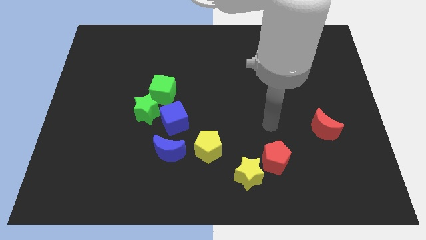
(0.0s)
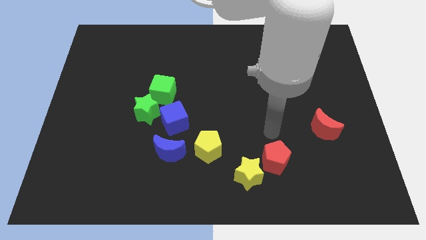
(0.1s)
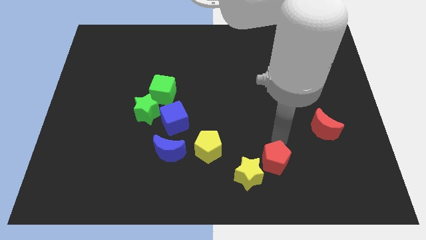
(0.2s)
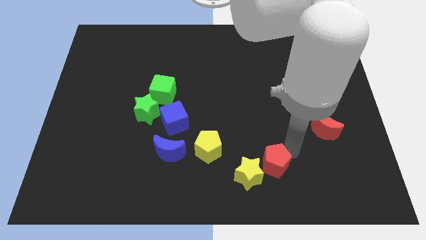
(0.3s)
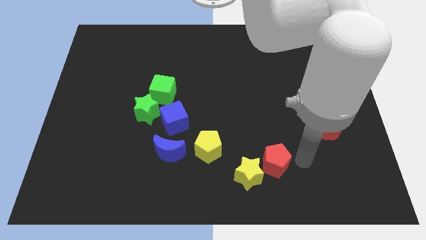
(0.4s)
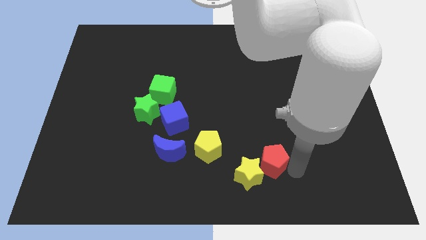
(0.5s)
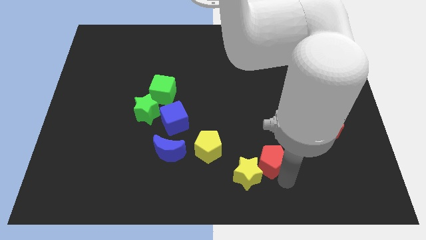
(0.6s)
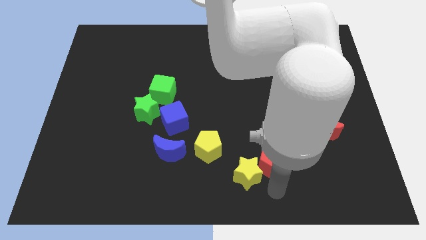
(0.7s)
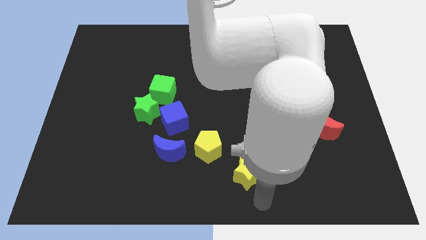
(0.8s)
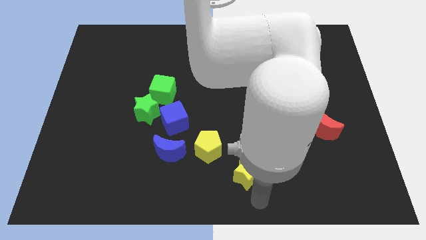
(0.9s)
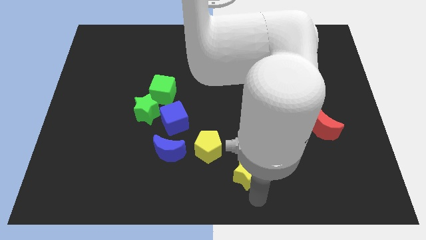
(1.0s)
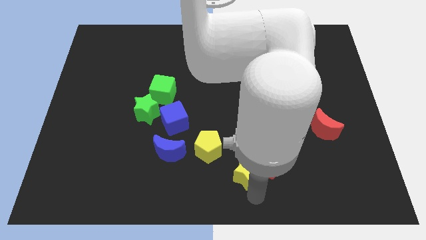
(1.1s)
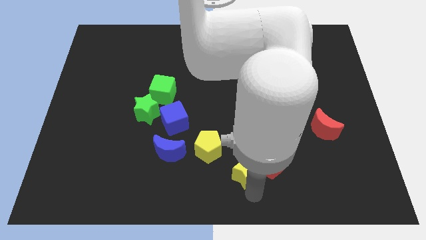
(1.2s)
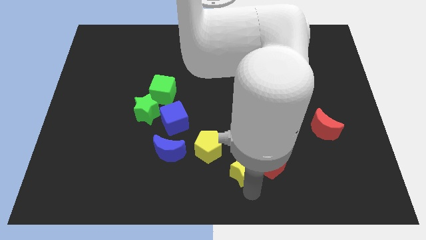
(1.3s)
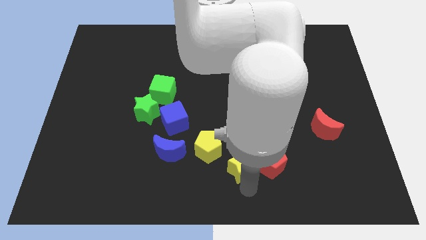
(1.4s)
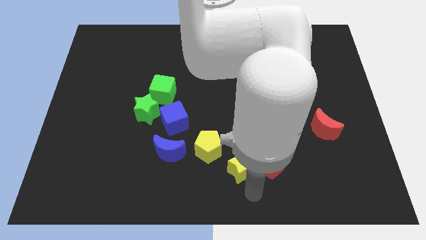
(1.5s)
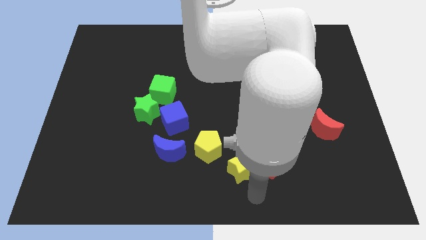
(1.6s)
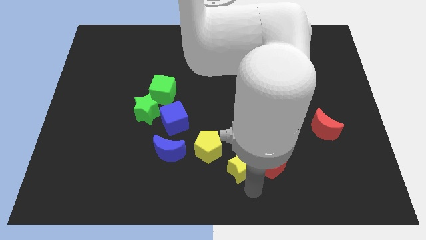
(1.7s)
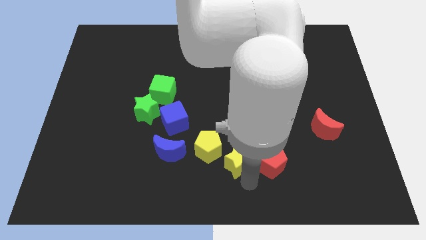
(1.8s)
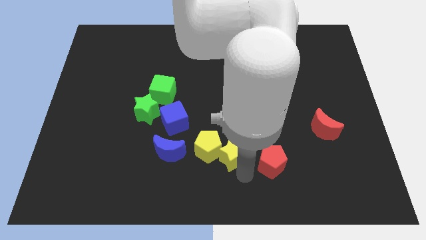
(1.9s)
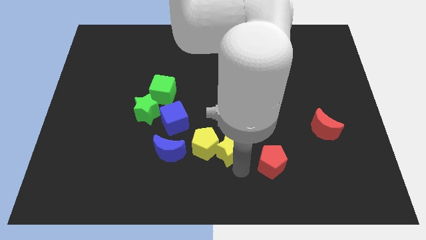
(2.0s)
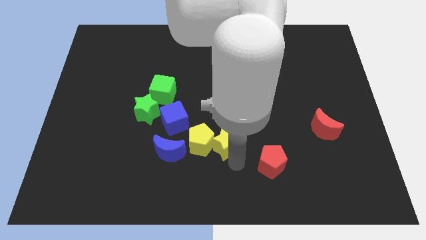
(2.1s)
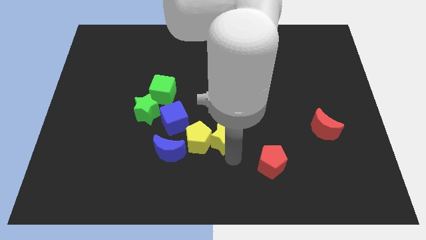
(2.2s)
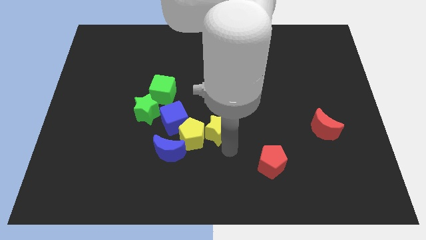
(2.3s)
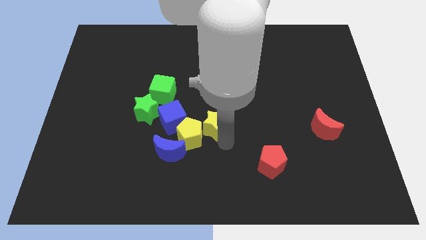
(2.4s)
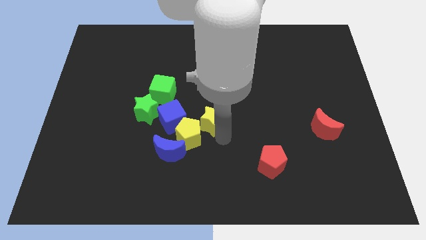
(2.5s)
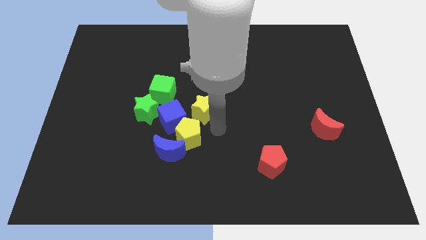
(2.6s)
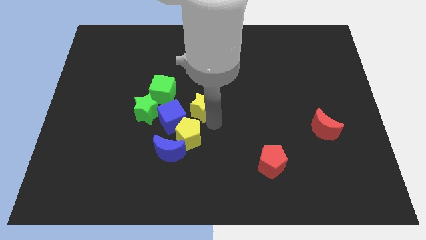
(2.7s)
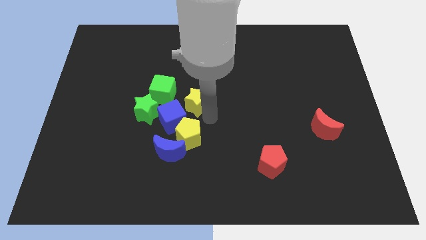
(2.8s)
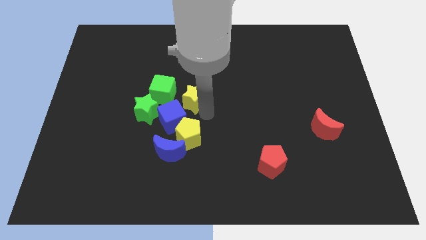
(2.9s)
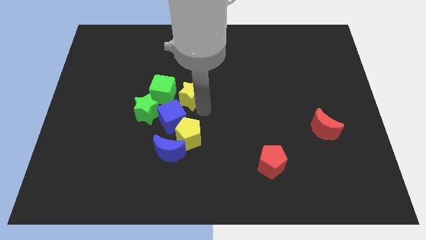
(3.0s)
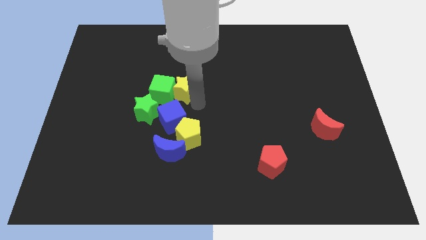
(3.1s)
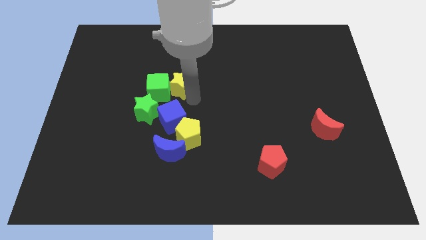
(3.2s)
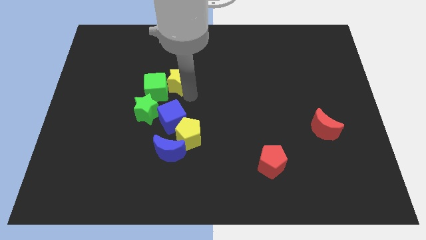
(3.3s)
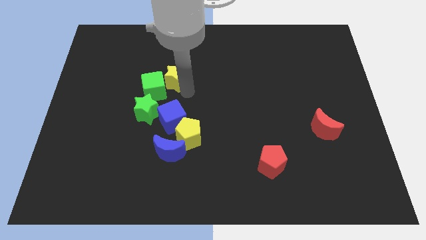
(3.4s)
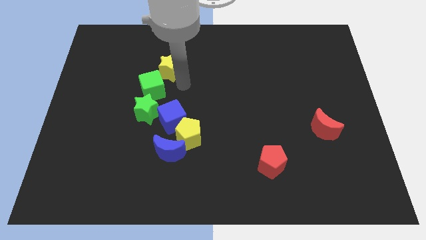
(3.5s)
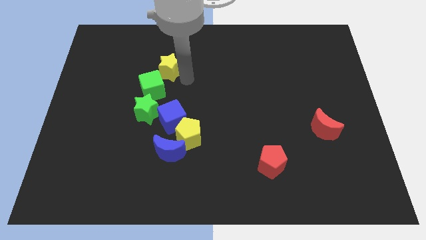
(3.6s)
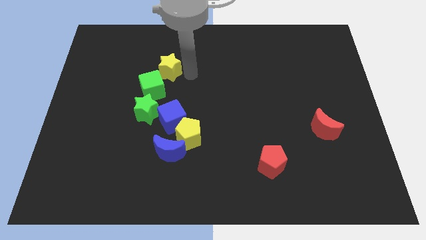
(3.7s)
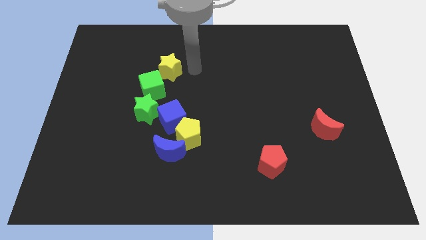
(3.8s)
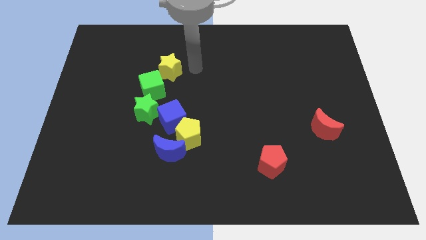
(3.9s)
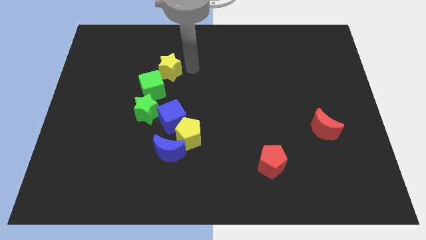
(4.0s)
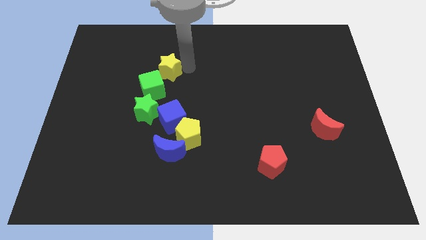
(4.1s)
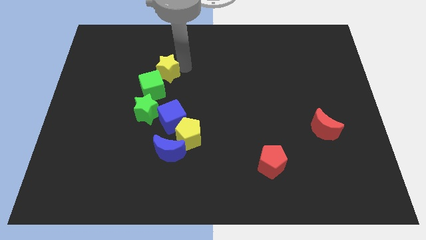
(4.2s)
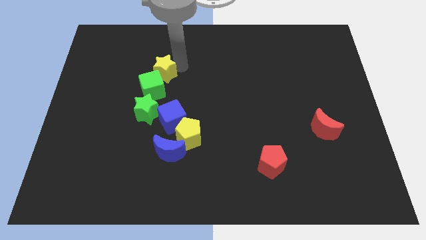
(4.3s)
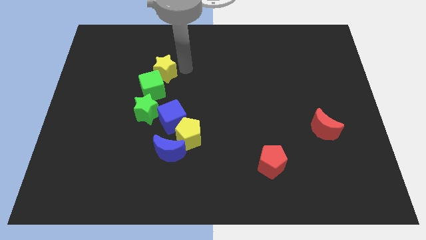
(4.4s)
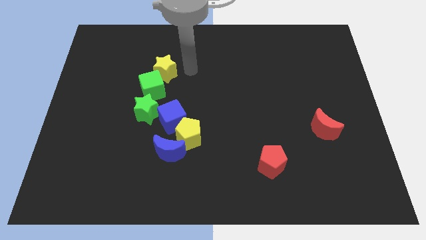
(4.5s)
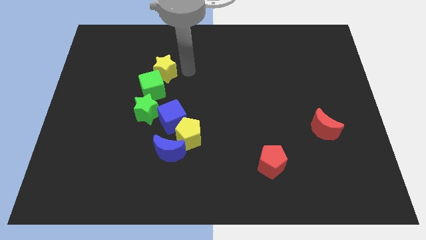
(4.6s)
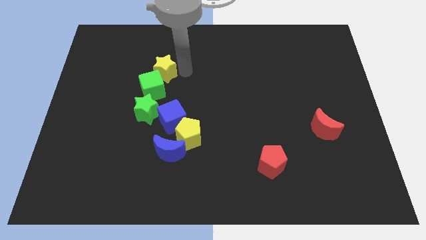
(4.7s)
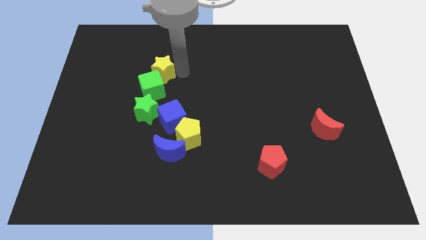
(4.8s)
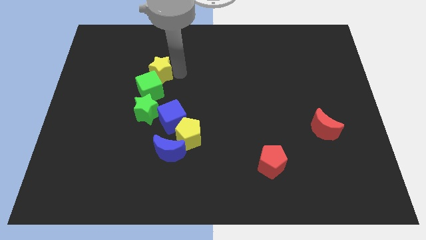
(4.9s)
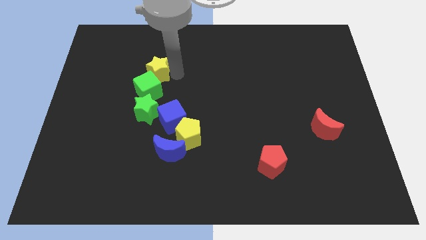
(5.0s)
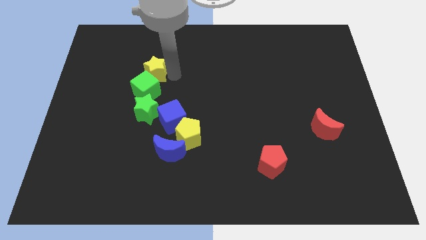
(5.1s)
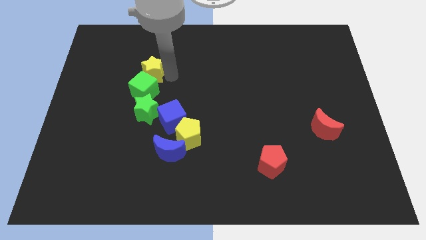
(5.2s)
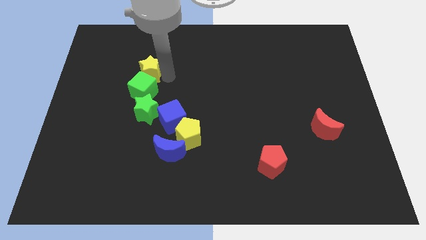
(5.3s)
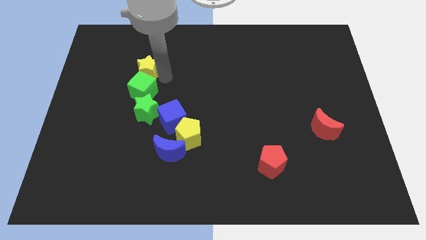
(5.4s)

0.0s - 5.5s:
slide the yellow star to the top left of the green cube

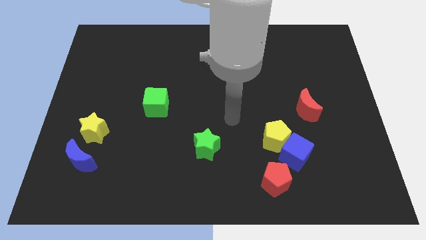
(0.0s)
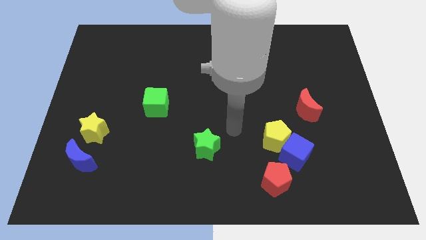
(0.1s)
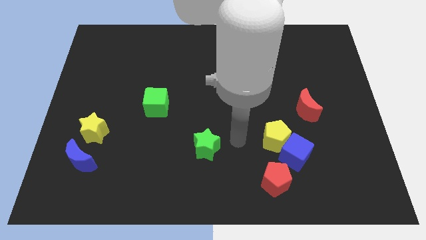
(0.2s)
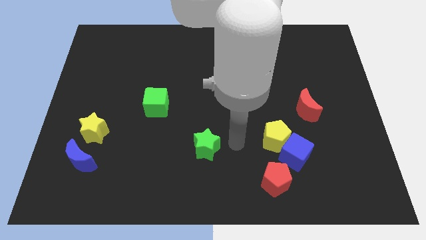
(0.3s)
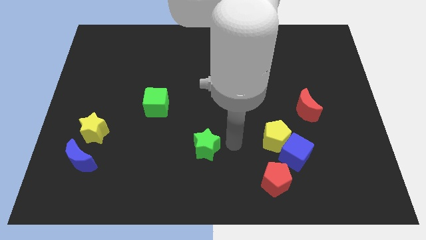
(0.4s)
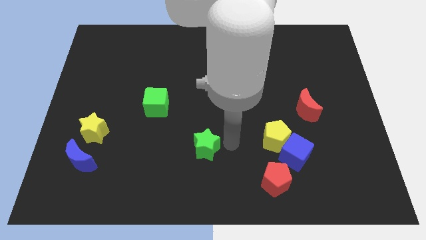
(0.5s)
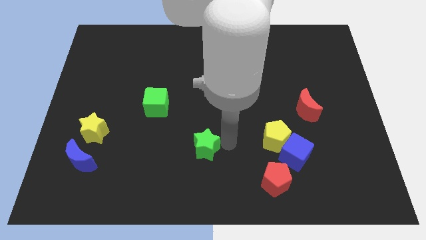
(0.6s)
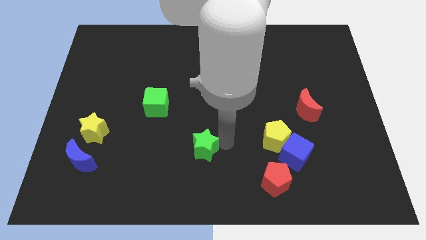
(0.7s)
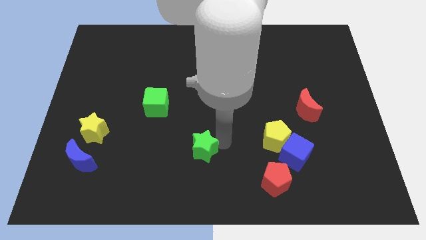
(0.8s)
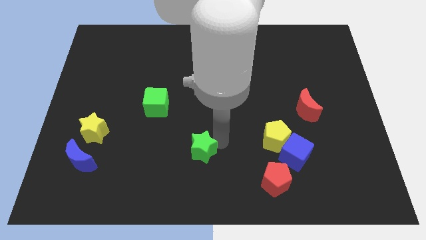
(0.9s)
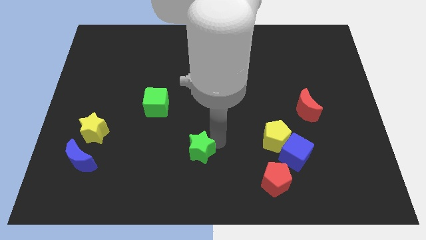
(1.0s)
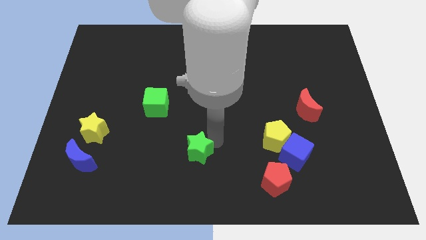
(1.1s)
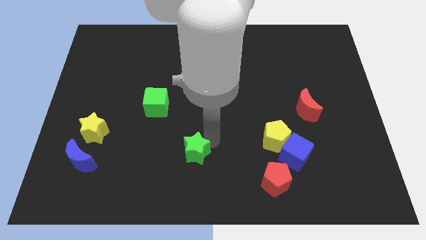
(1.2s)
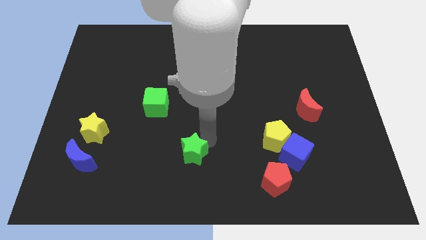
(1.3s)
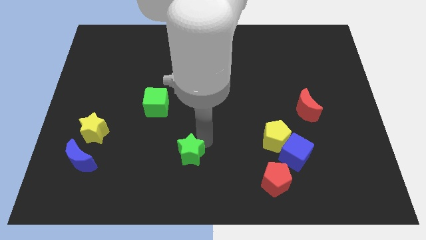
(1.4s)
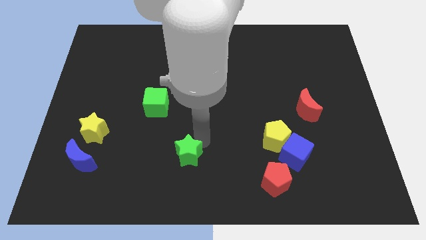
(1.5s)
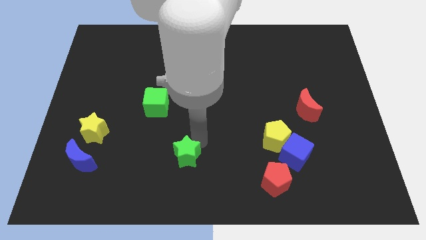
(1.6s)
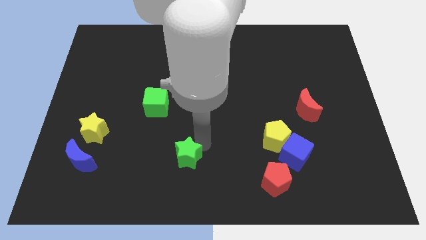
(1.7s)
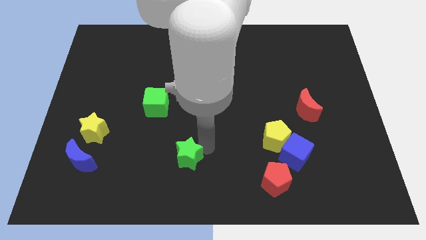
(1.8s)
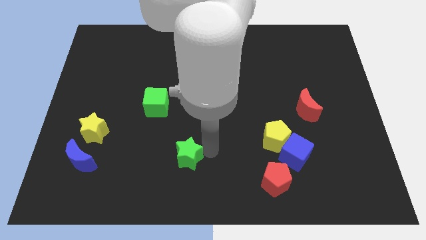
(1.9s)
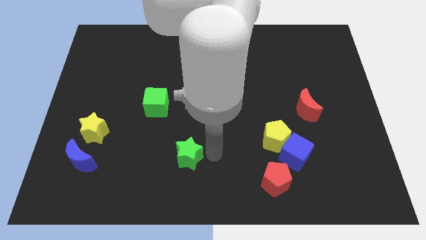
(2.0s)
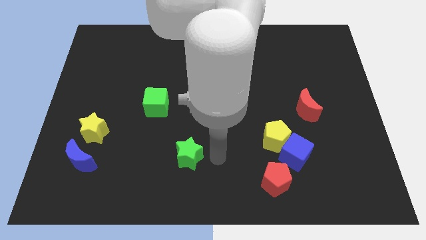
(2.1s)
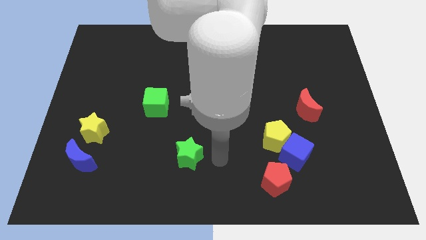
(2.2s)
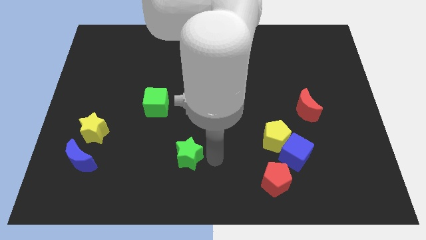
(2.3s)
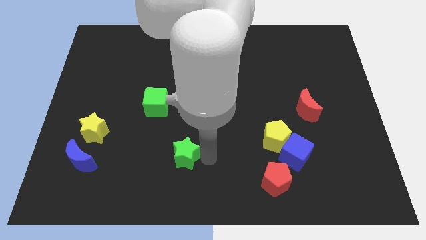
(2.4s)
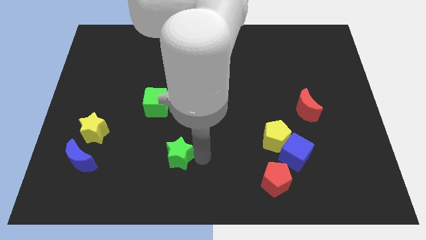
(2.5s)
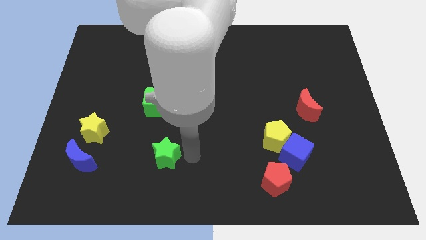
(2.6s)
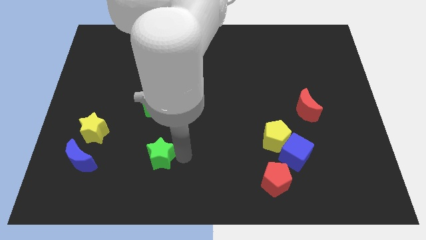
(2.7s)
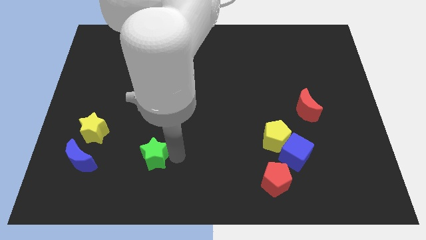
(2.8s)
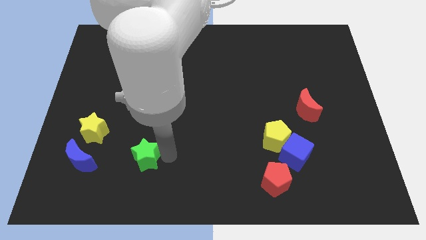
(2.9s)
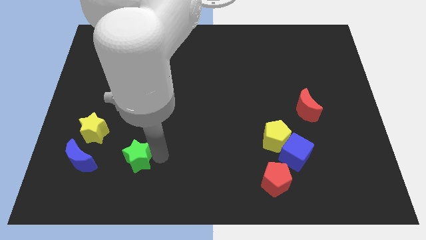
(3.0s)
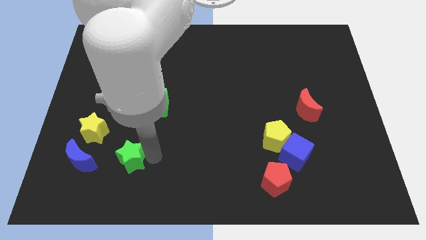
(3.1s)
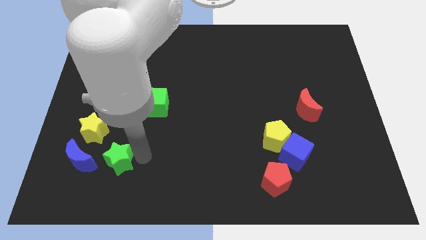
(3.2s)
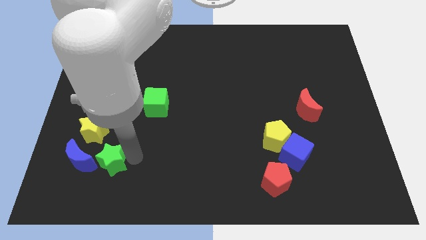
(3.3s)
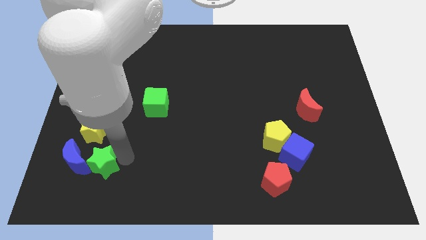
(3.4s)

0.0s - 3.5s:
put the green star to the bottom of the yellow star
